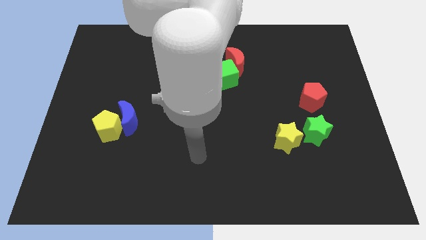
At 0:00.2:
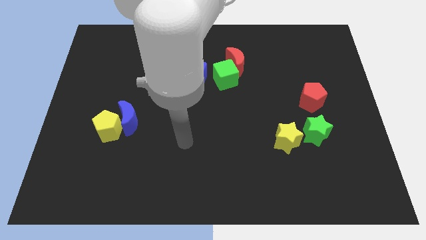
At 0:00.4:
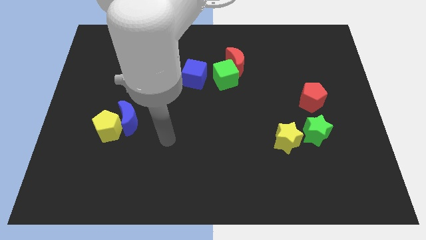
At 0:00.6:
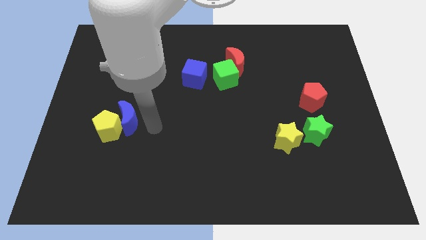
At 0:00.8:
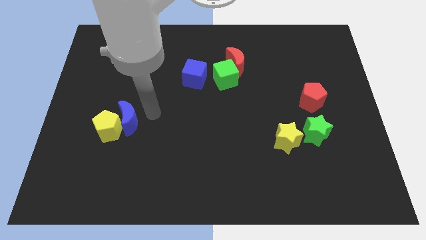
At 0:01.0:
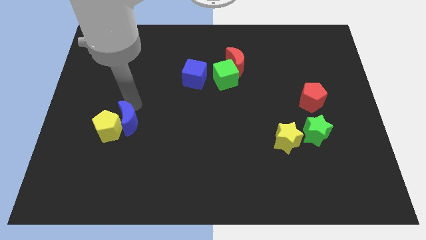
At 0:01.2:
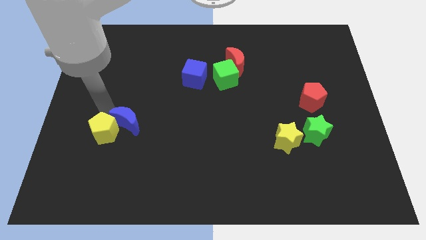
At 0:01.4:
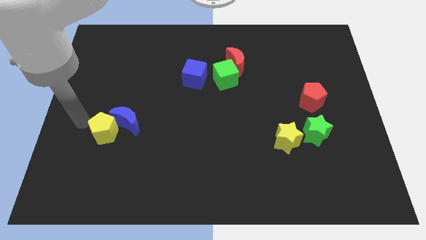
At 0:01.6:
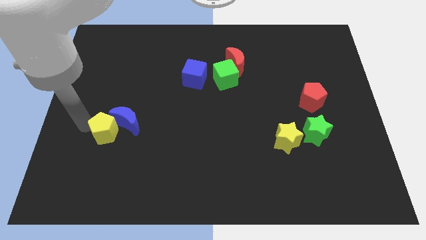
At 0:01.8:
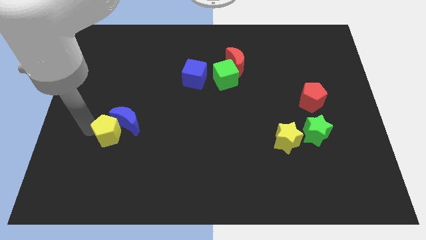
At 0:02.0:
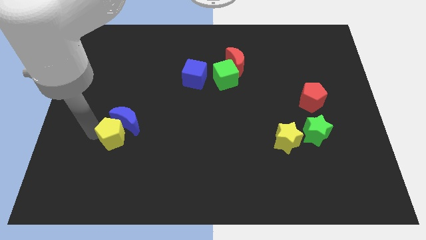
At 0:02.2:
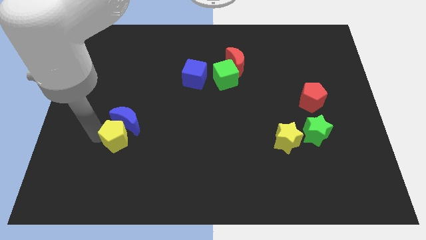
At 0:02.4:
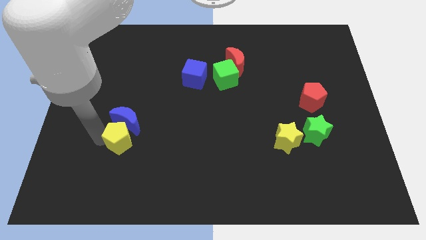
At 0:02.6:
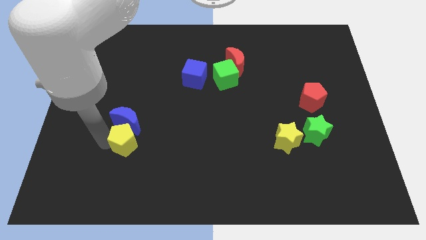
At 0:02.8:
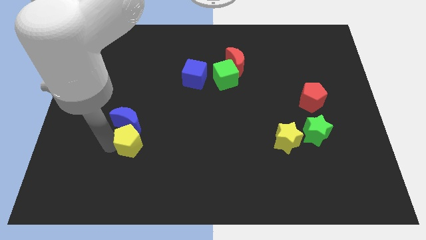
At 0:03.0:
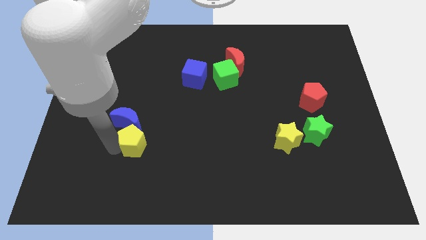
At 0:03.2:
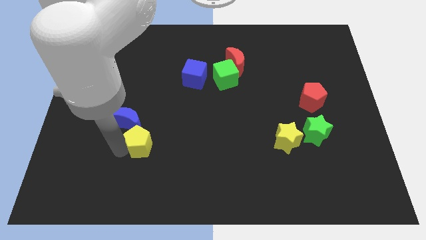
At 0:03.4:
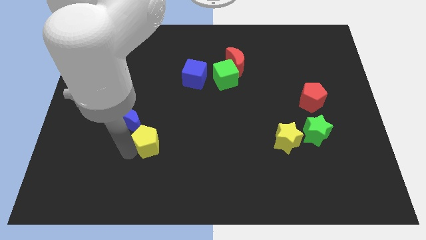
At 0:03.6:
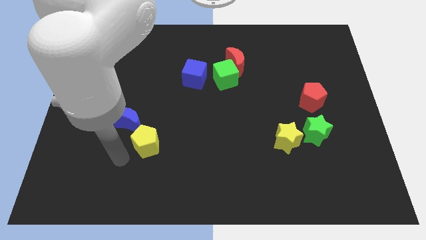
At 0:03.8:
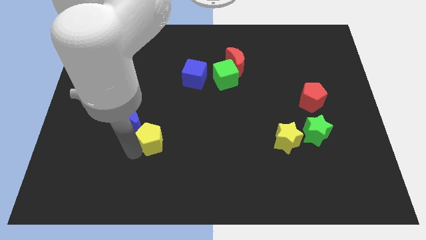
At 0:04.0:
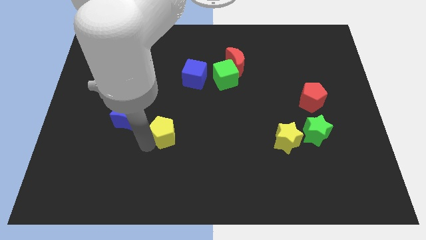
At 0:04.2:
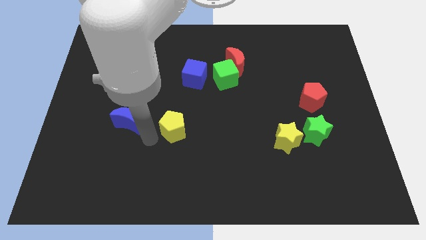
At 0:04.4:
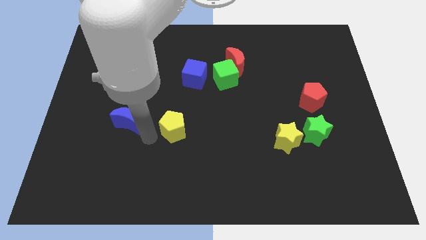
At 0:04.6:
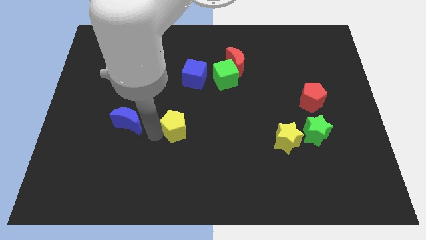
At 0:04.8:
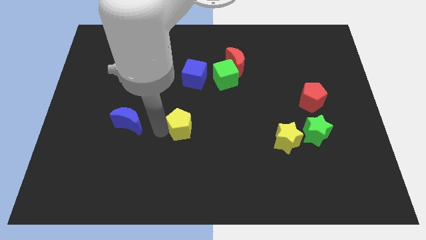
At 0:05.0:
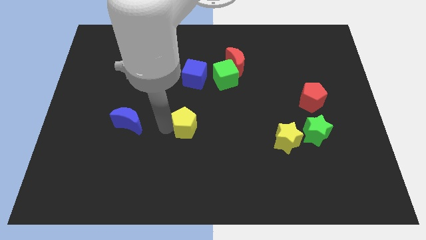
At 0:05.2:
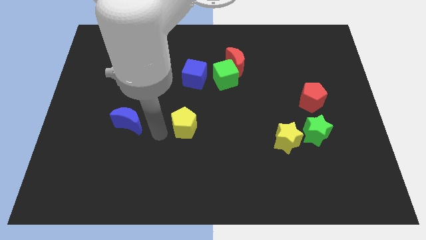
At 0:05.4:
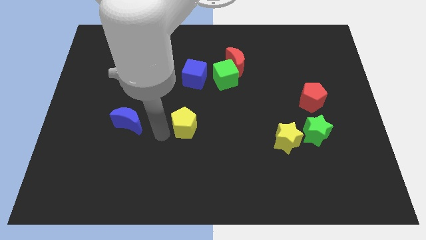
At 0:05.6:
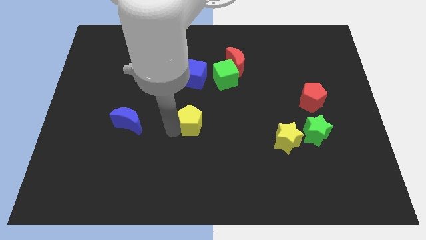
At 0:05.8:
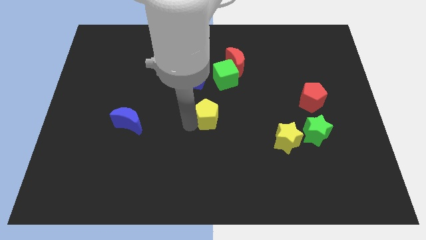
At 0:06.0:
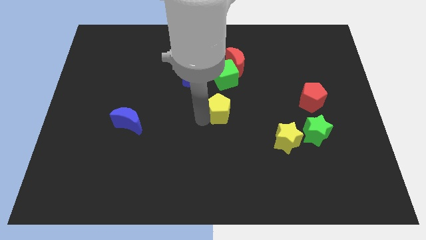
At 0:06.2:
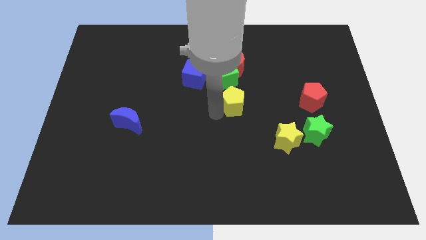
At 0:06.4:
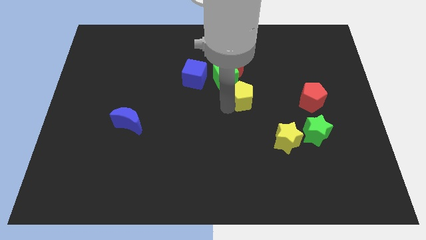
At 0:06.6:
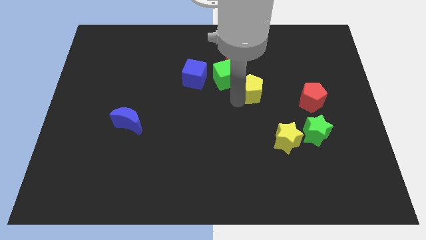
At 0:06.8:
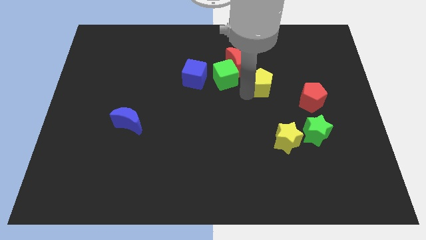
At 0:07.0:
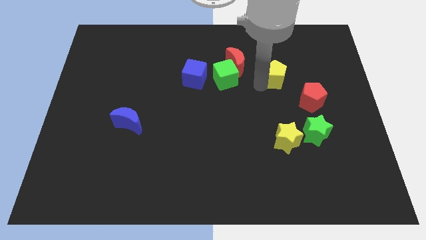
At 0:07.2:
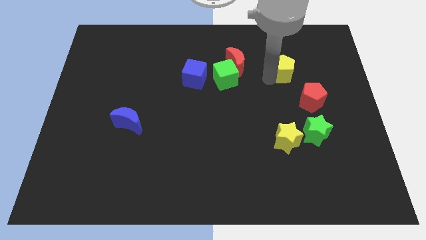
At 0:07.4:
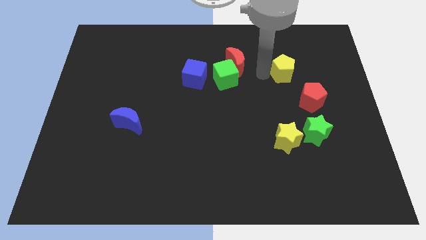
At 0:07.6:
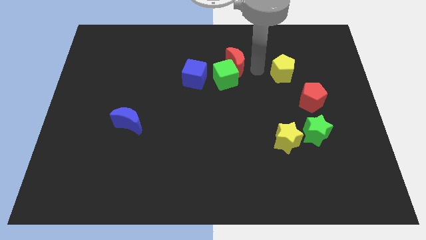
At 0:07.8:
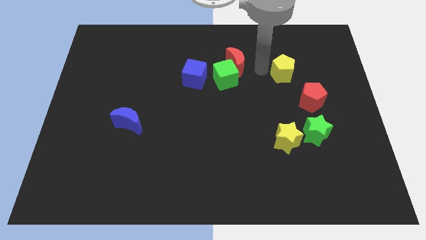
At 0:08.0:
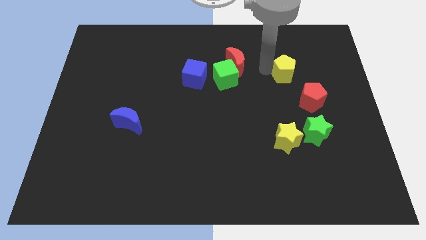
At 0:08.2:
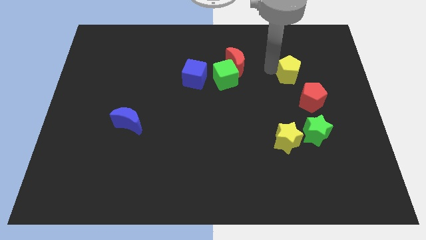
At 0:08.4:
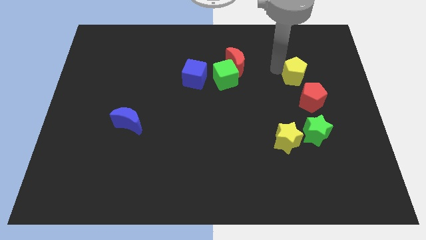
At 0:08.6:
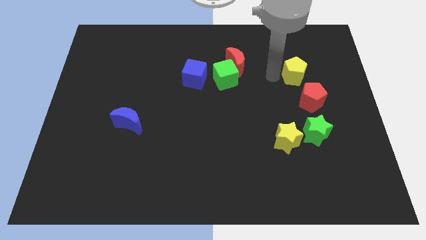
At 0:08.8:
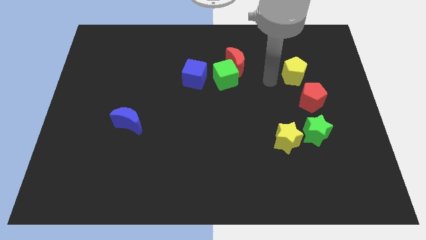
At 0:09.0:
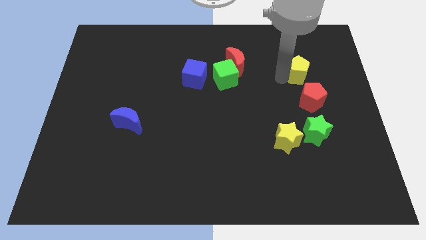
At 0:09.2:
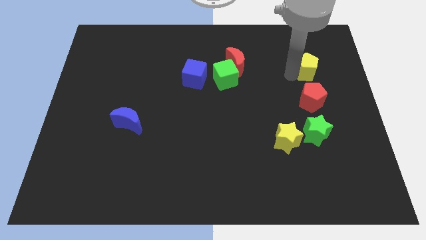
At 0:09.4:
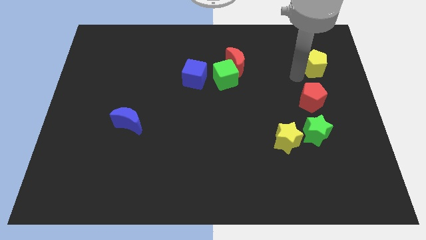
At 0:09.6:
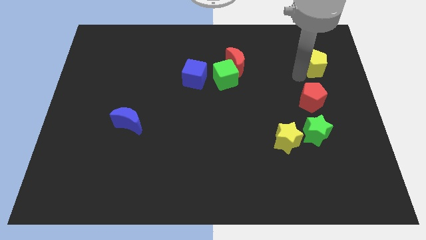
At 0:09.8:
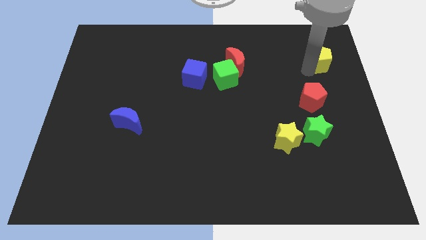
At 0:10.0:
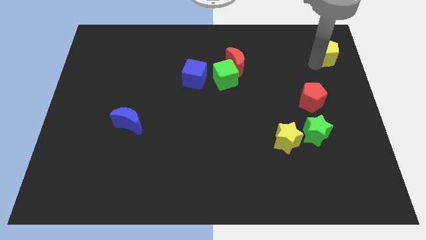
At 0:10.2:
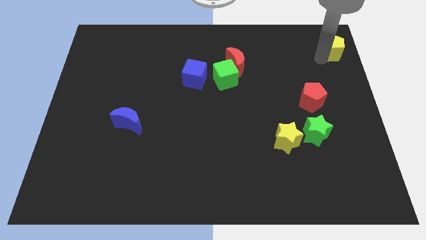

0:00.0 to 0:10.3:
slide the yellow pentagon to the top right of the board

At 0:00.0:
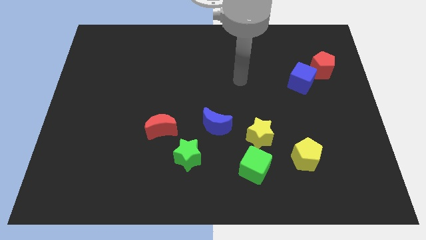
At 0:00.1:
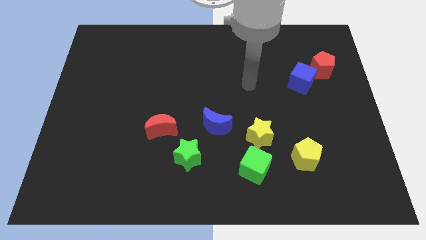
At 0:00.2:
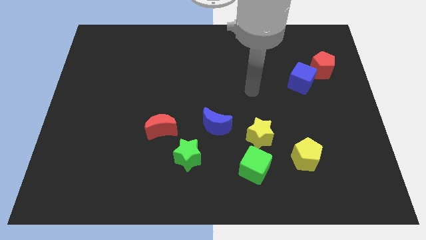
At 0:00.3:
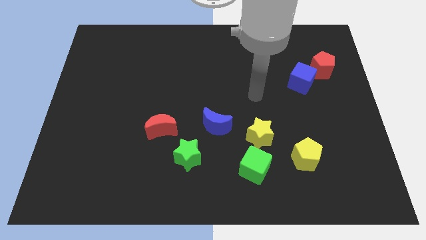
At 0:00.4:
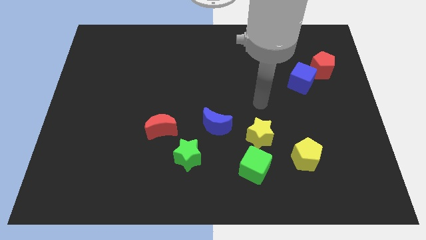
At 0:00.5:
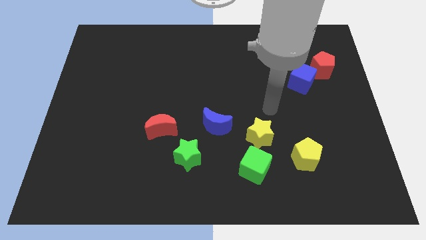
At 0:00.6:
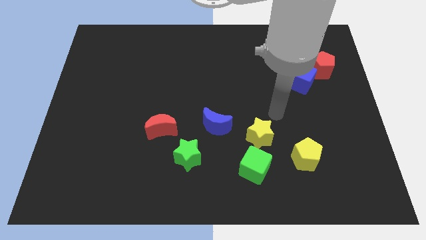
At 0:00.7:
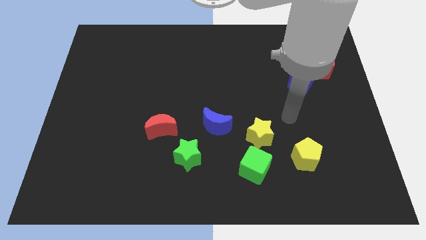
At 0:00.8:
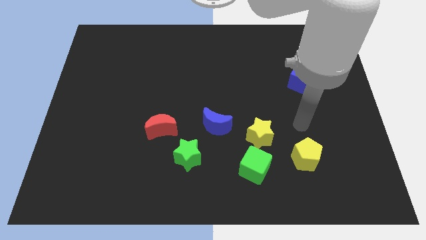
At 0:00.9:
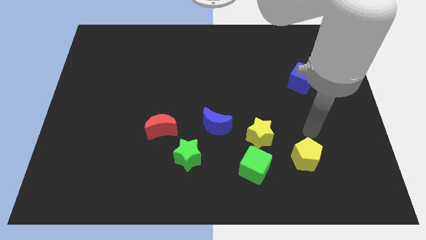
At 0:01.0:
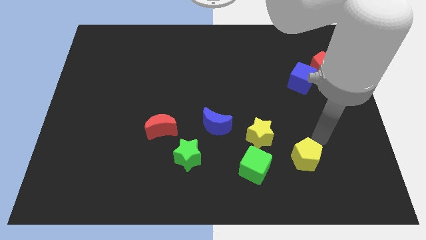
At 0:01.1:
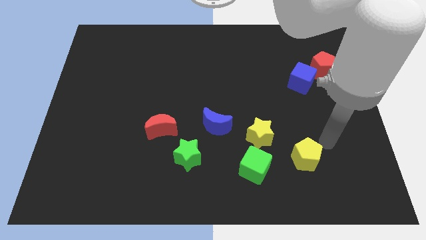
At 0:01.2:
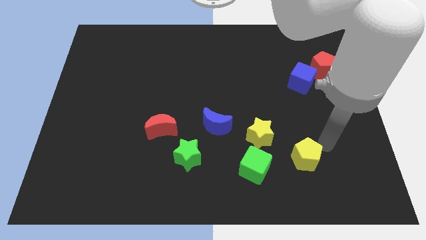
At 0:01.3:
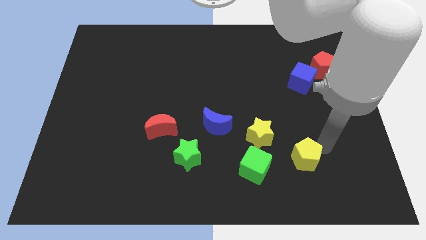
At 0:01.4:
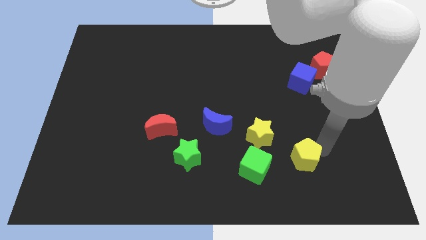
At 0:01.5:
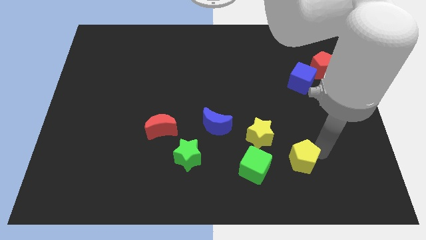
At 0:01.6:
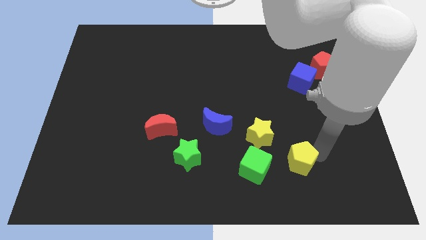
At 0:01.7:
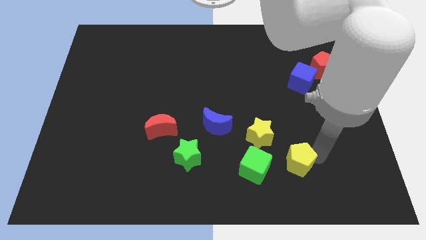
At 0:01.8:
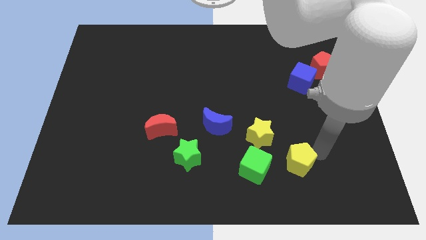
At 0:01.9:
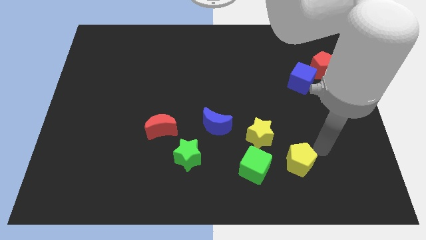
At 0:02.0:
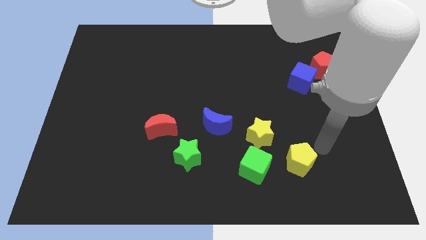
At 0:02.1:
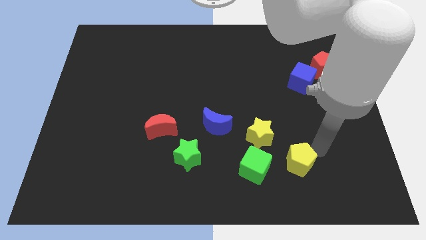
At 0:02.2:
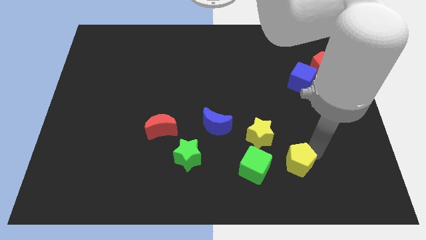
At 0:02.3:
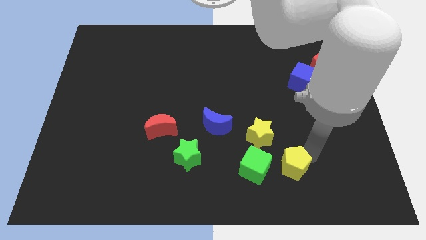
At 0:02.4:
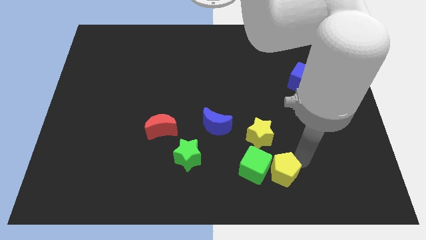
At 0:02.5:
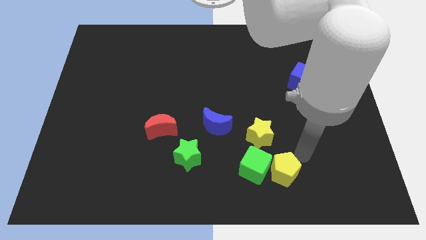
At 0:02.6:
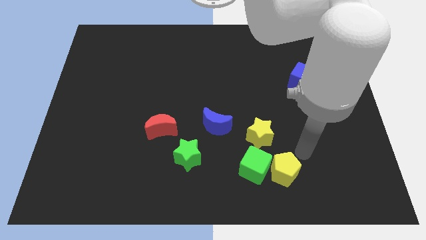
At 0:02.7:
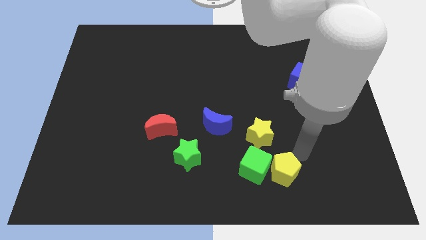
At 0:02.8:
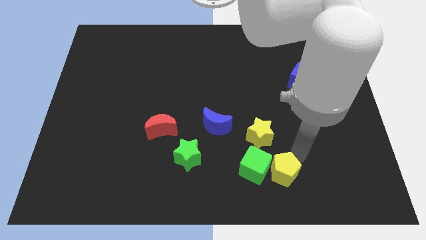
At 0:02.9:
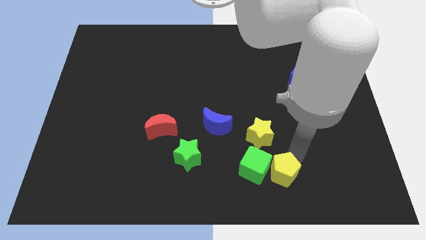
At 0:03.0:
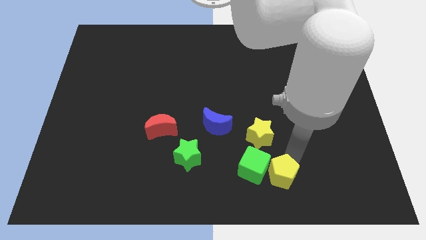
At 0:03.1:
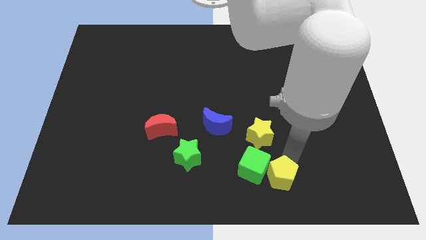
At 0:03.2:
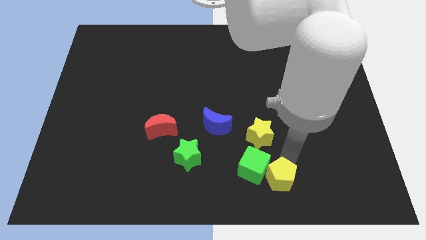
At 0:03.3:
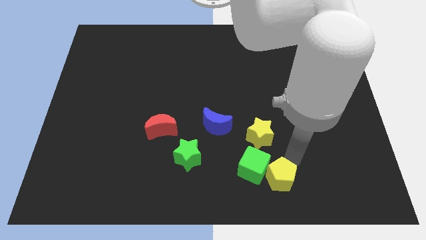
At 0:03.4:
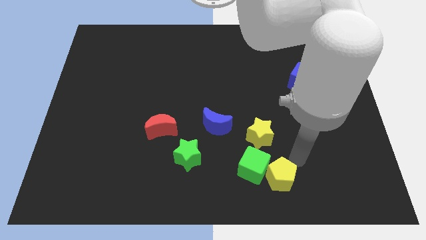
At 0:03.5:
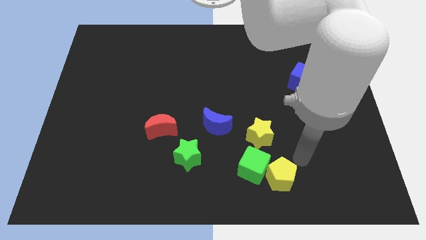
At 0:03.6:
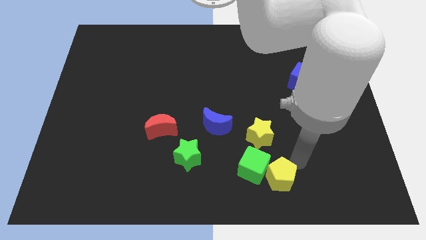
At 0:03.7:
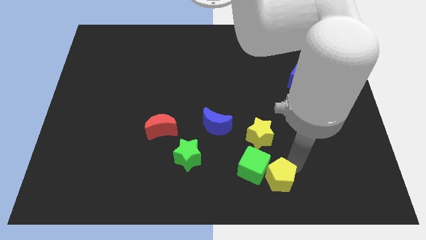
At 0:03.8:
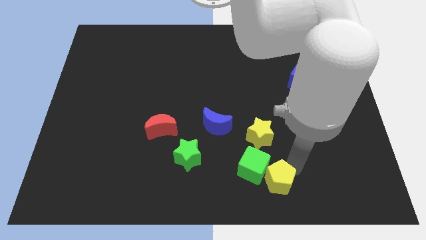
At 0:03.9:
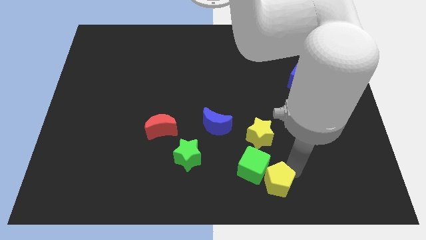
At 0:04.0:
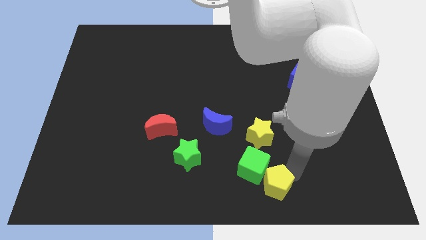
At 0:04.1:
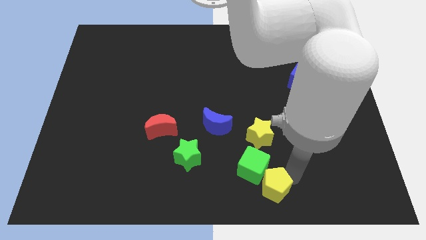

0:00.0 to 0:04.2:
slide the yellow pentagon to the bottom side
